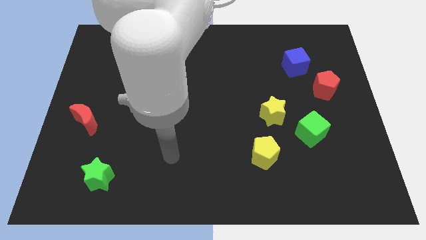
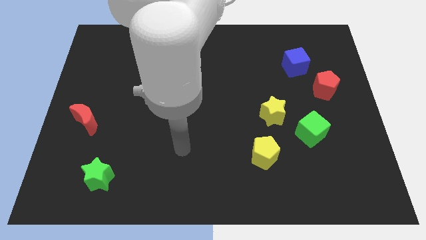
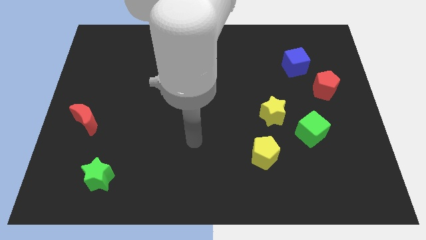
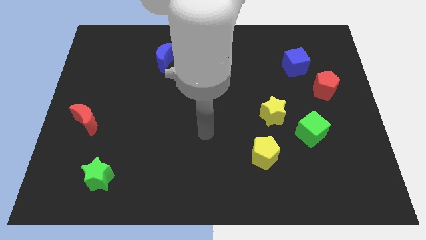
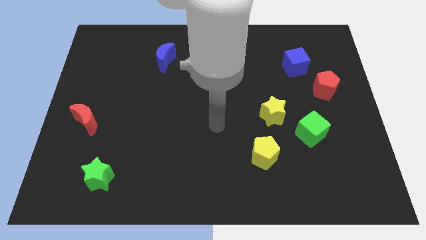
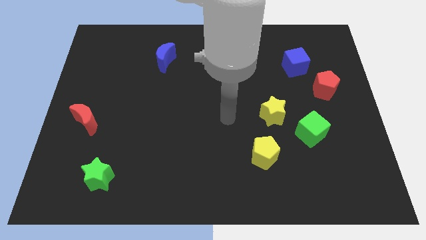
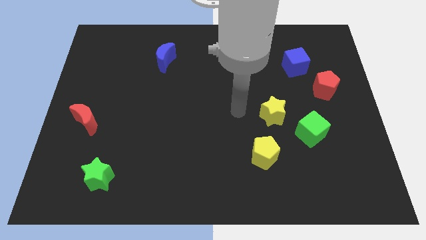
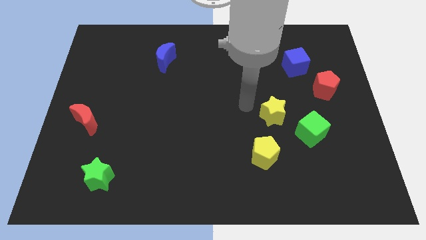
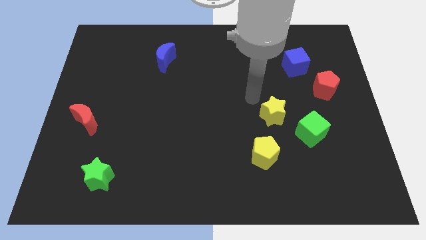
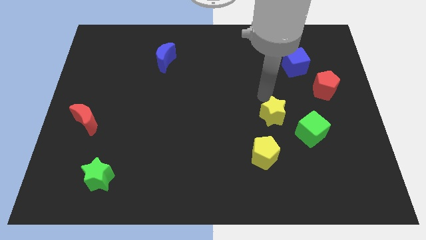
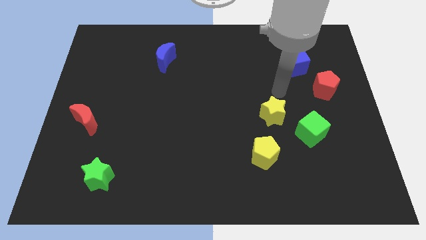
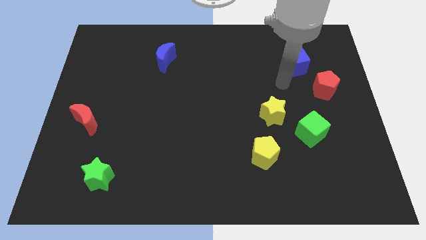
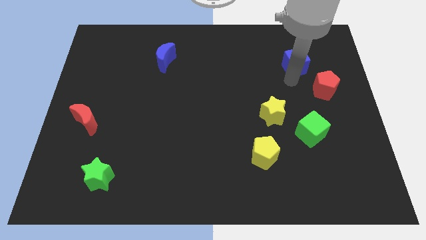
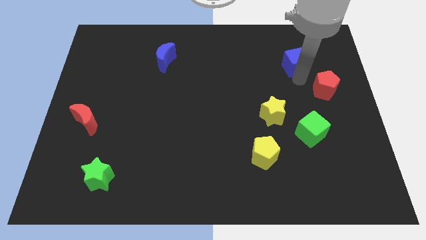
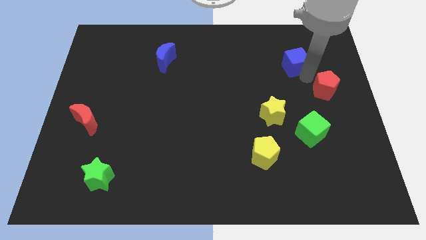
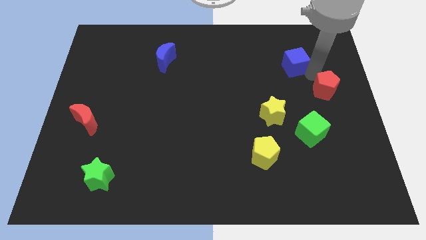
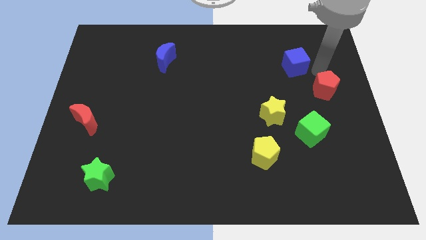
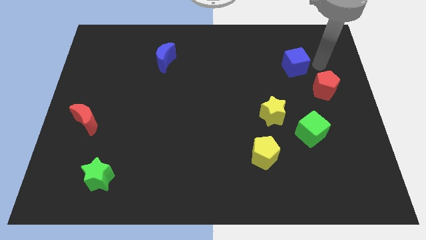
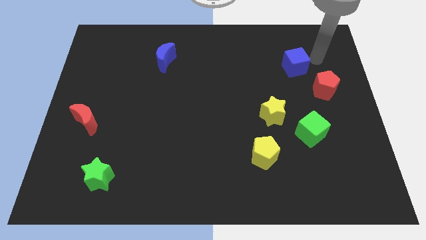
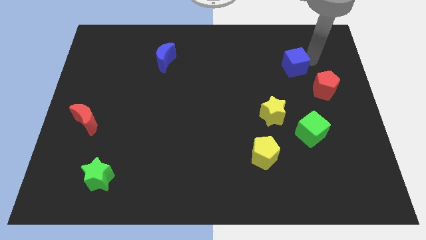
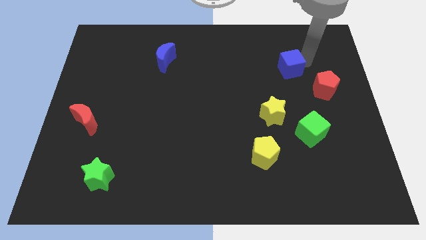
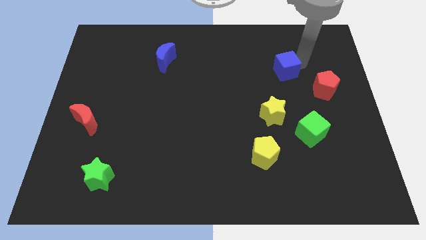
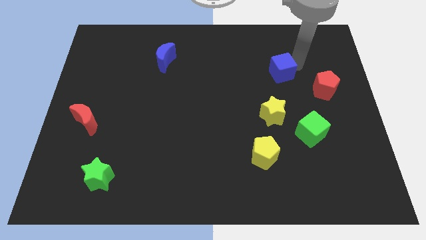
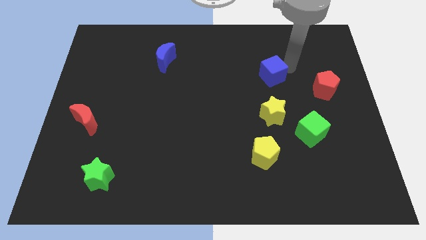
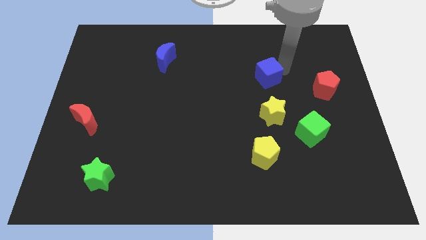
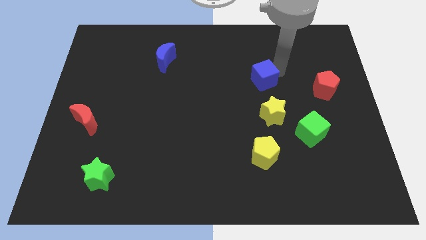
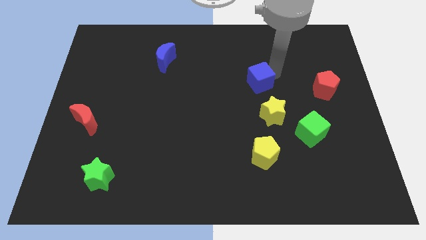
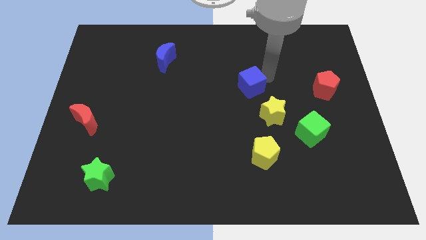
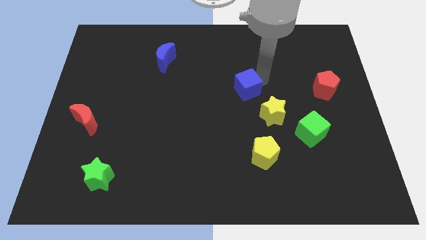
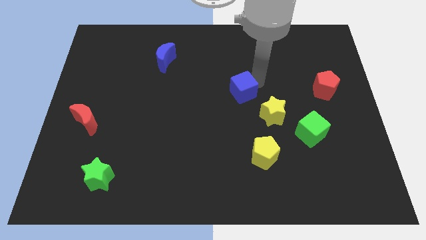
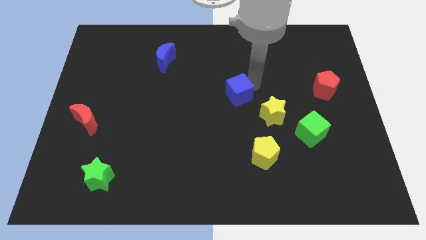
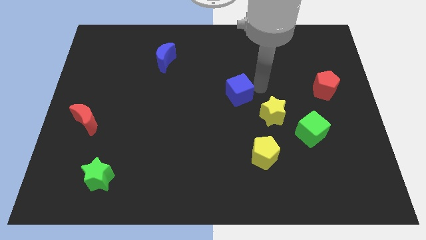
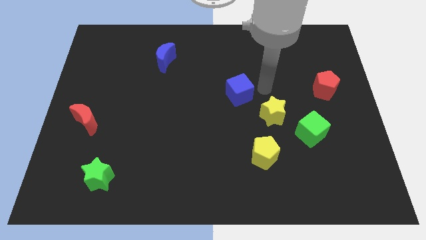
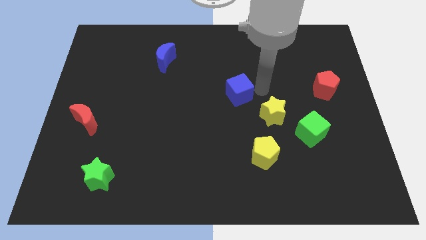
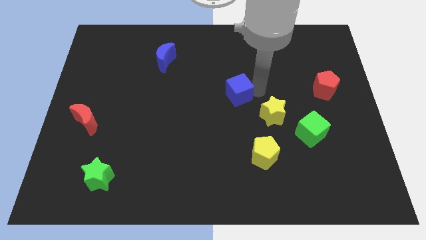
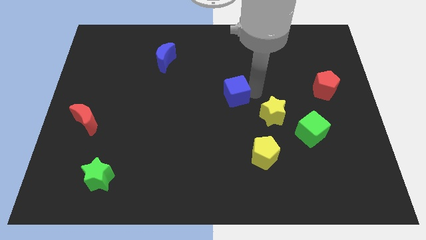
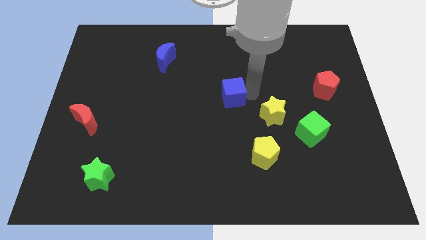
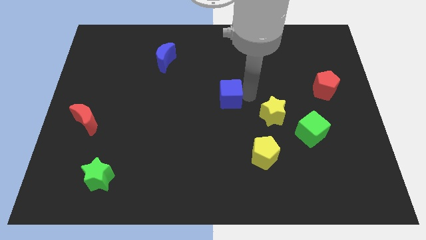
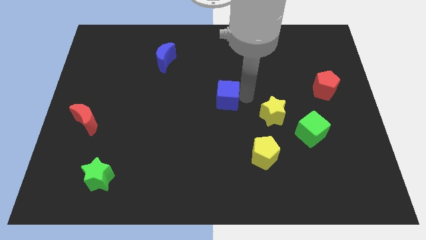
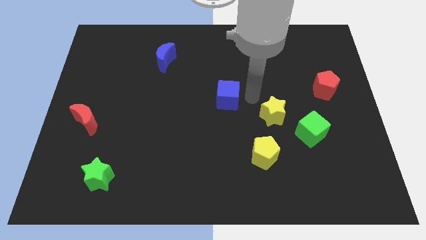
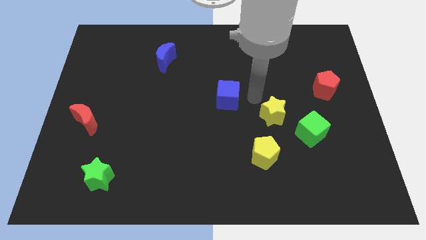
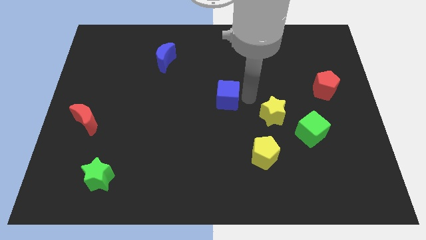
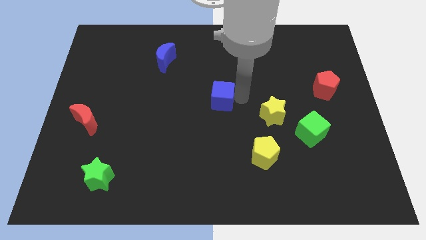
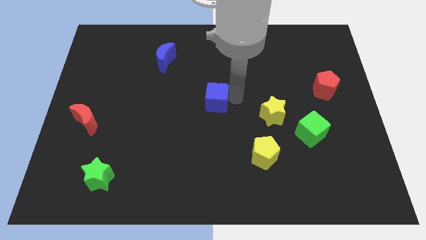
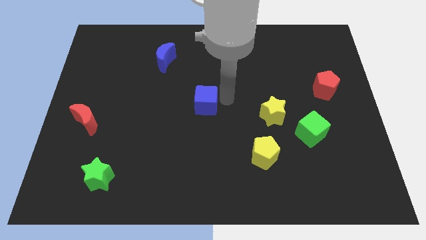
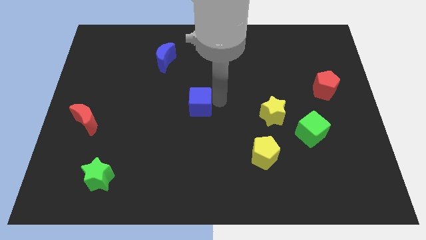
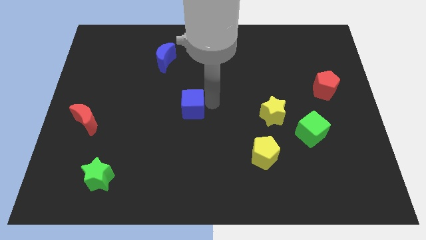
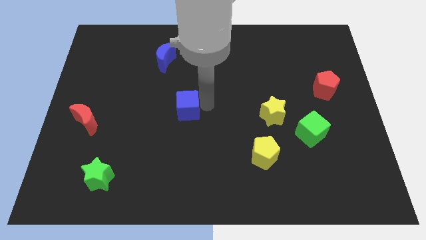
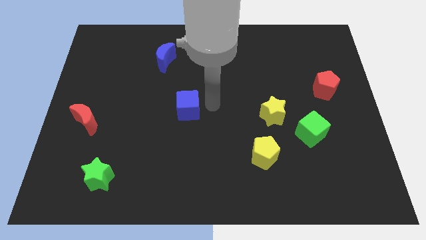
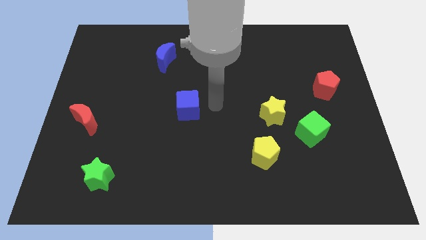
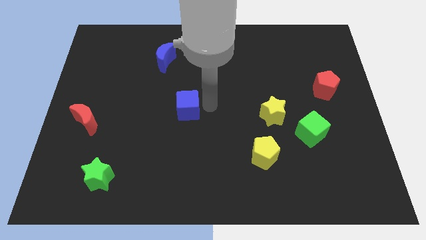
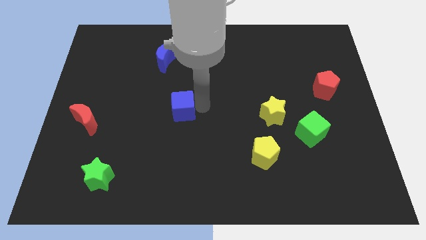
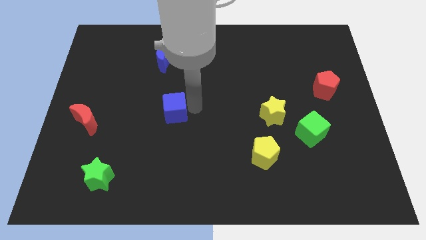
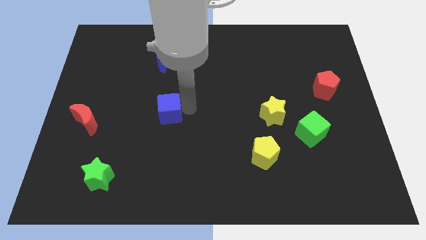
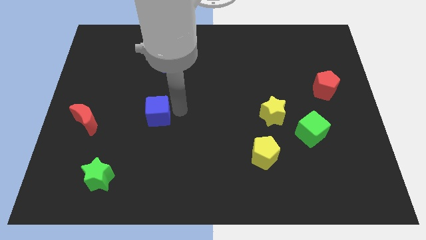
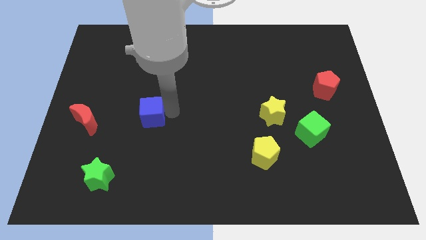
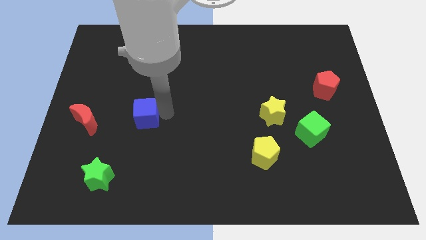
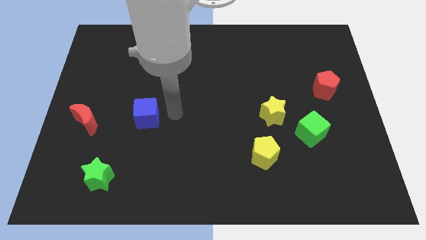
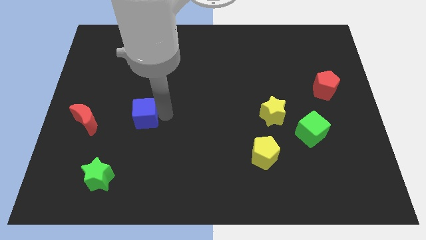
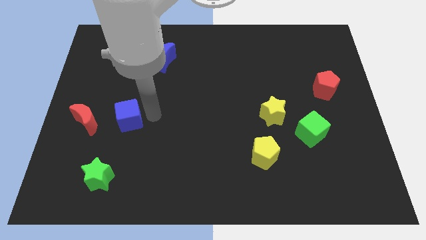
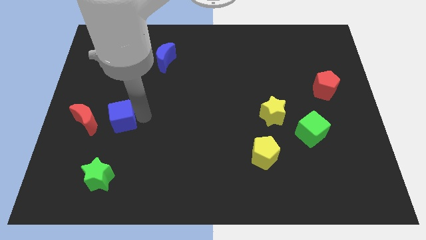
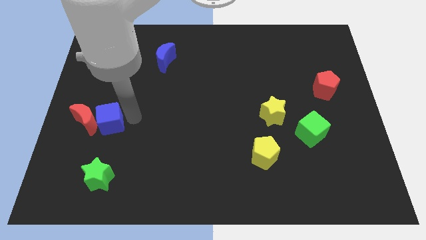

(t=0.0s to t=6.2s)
push the blue cube next to the red moon
